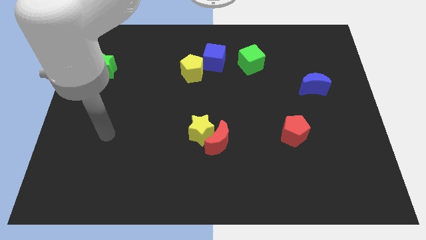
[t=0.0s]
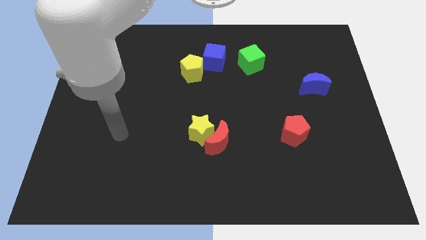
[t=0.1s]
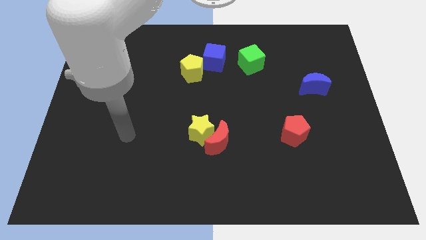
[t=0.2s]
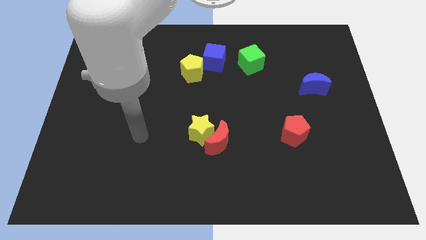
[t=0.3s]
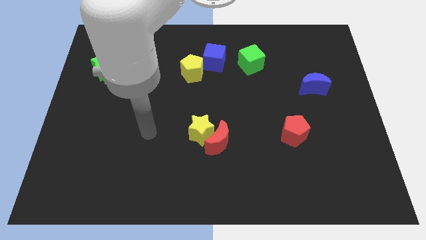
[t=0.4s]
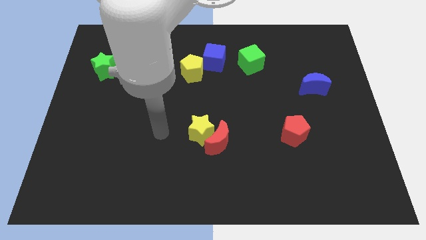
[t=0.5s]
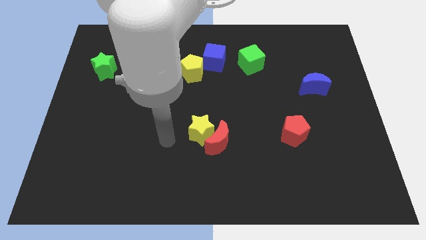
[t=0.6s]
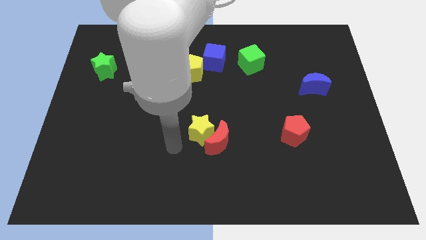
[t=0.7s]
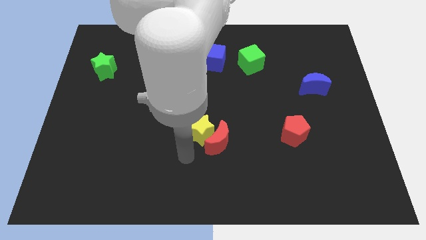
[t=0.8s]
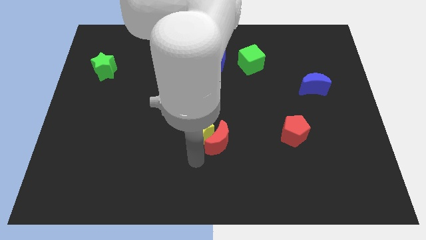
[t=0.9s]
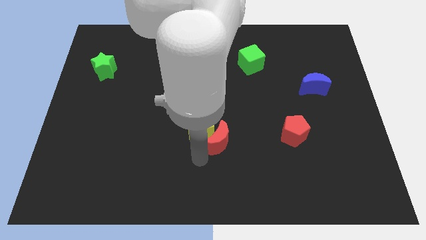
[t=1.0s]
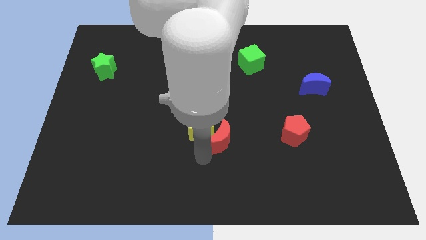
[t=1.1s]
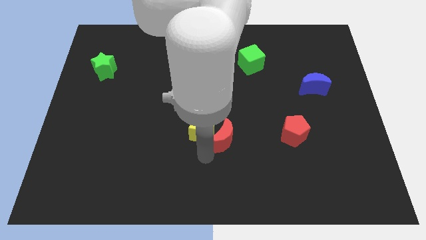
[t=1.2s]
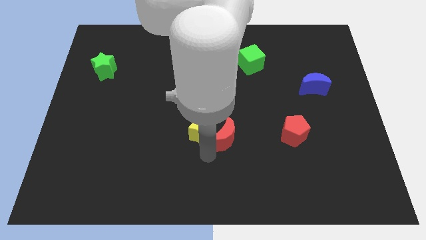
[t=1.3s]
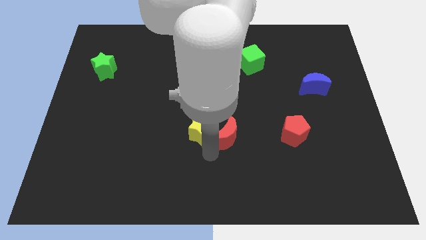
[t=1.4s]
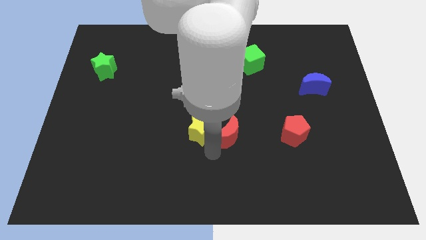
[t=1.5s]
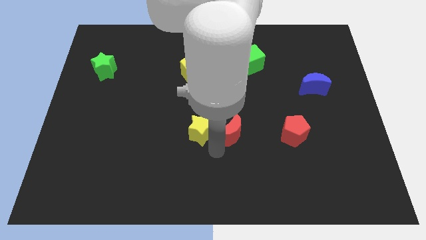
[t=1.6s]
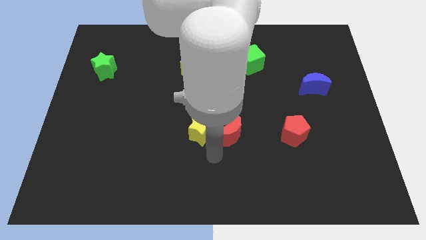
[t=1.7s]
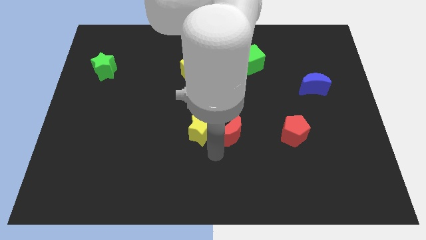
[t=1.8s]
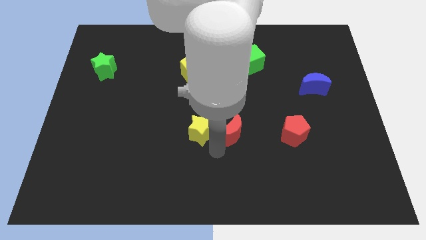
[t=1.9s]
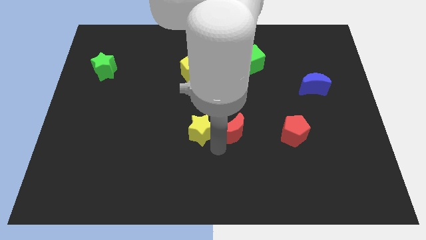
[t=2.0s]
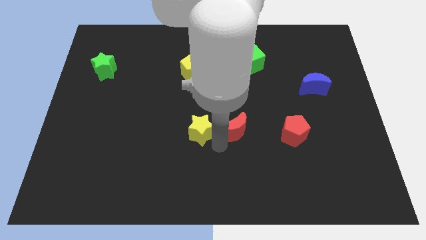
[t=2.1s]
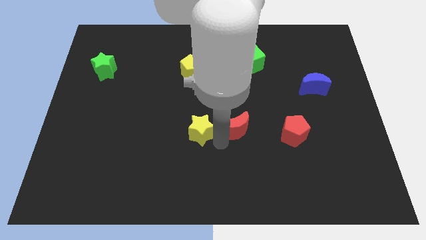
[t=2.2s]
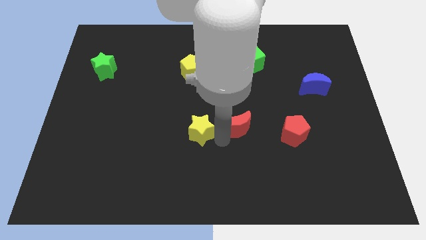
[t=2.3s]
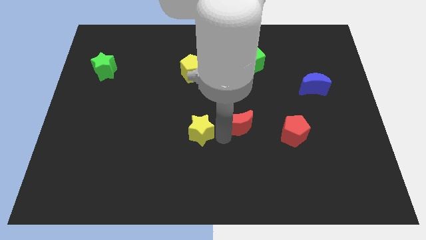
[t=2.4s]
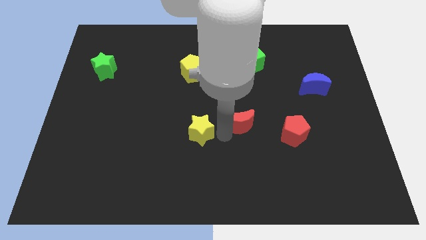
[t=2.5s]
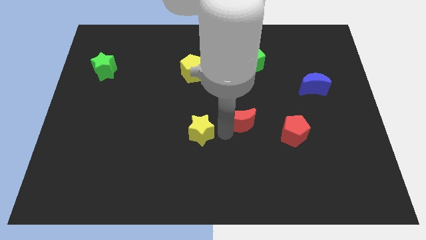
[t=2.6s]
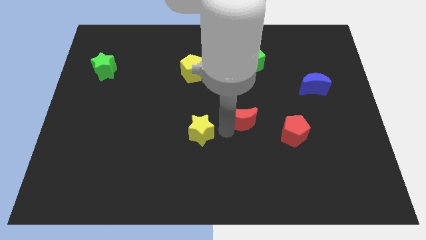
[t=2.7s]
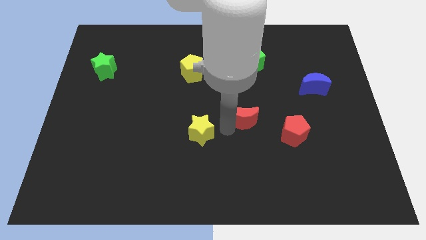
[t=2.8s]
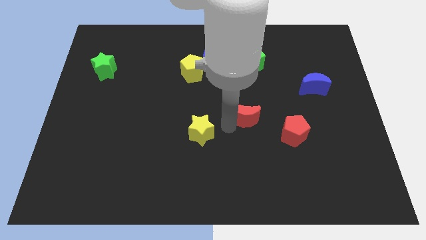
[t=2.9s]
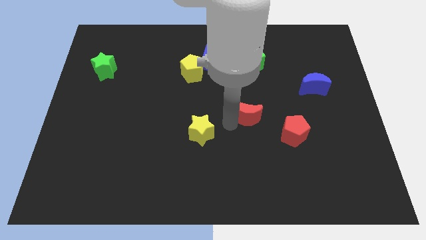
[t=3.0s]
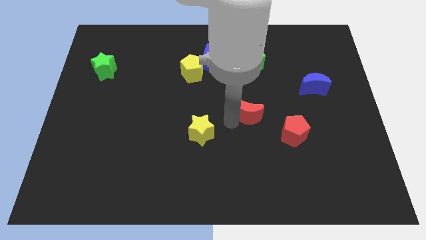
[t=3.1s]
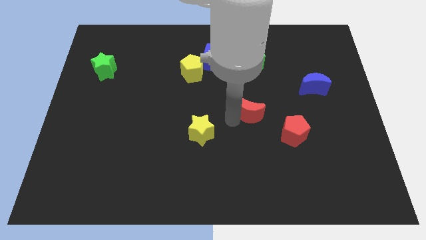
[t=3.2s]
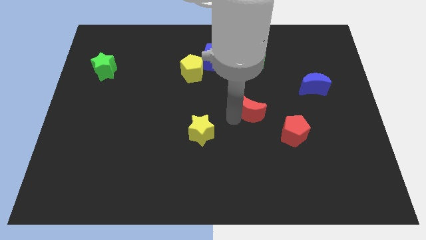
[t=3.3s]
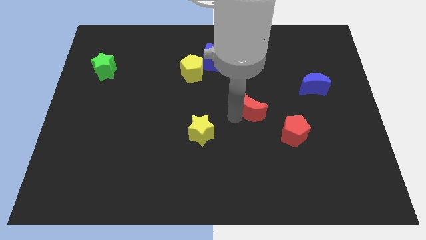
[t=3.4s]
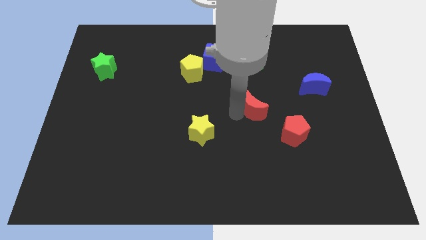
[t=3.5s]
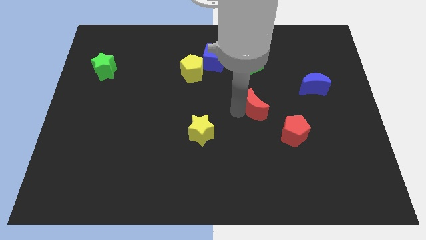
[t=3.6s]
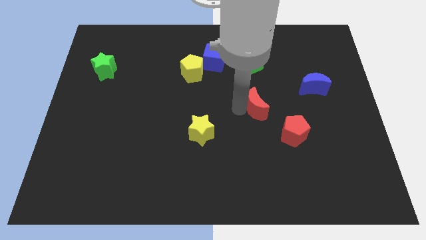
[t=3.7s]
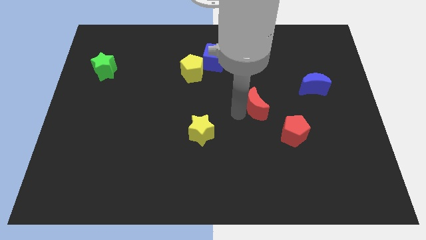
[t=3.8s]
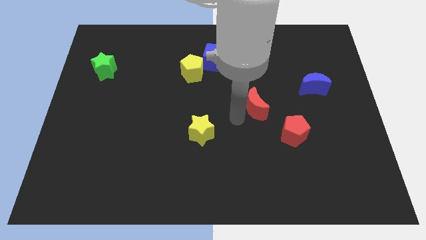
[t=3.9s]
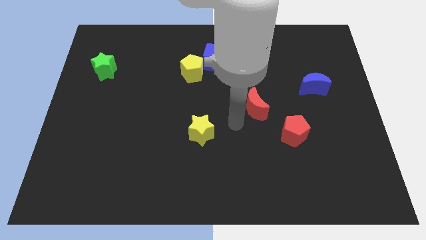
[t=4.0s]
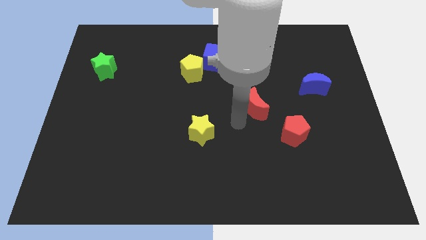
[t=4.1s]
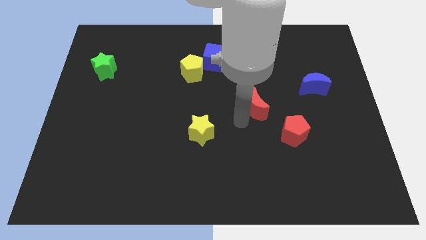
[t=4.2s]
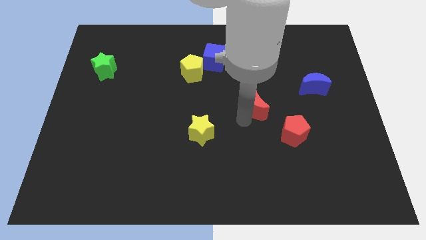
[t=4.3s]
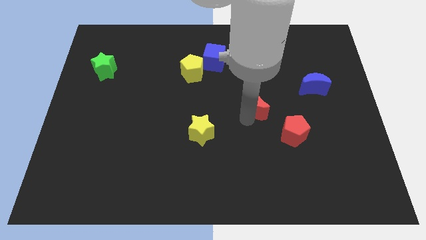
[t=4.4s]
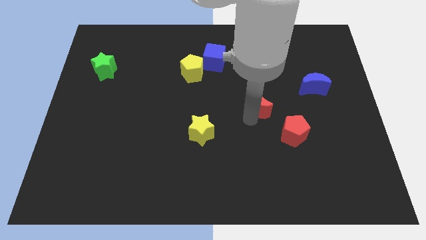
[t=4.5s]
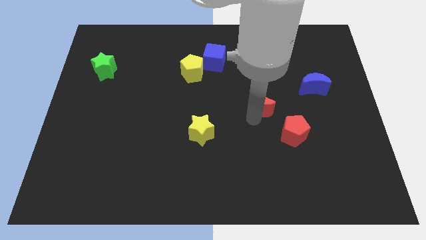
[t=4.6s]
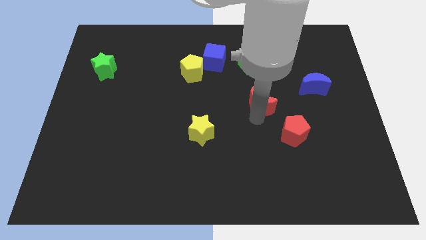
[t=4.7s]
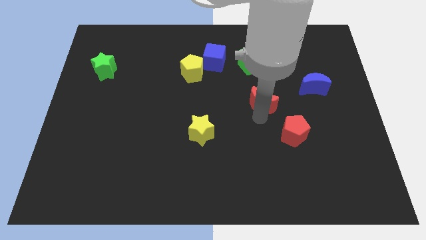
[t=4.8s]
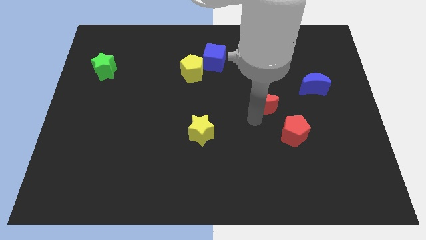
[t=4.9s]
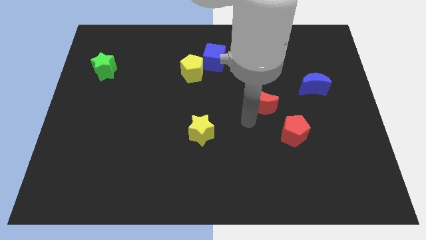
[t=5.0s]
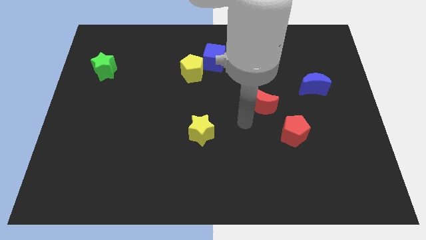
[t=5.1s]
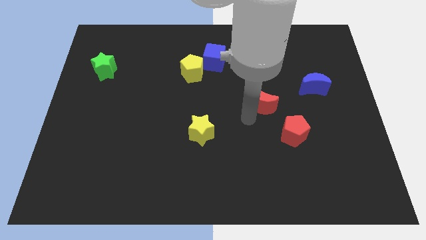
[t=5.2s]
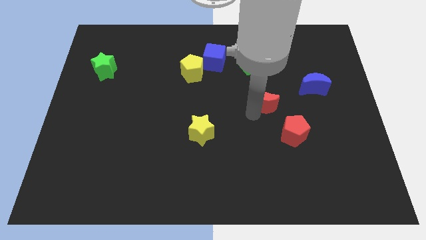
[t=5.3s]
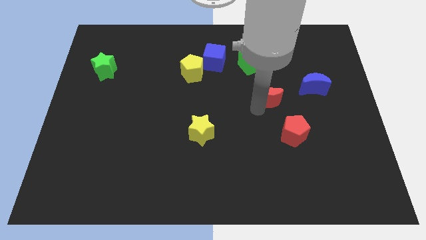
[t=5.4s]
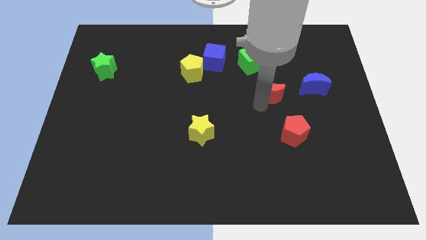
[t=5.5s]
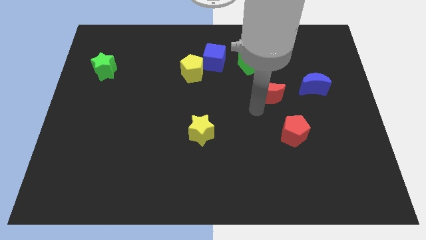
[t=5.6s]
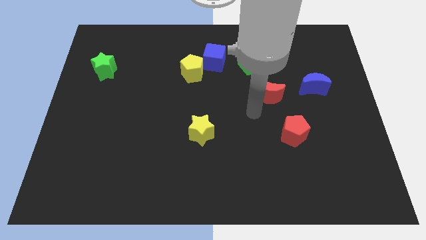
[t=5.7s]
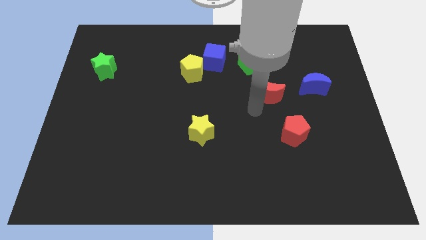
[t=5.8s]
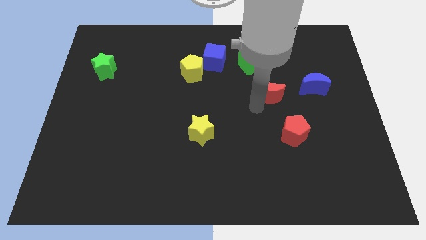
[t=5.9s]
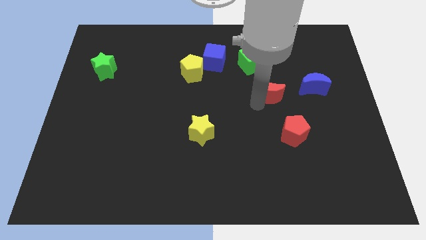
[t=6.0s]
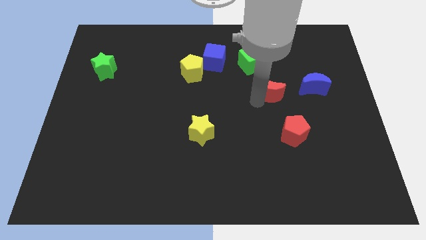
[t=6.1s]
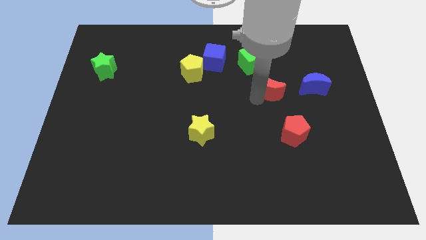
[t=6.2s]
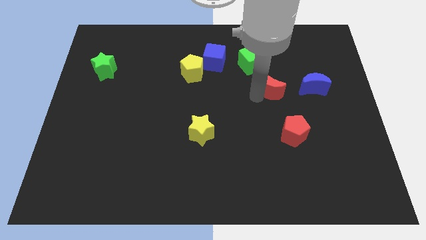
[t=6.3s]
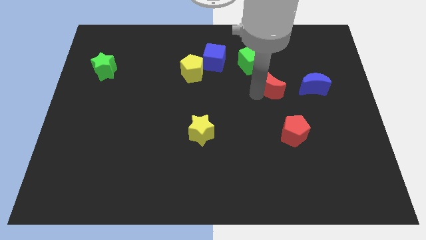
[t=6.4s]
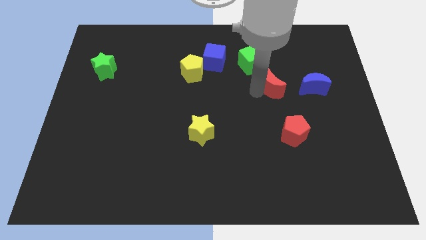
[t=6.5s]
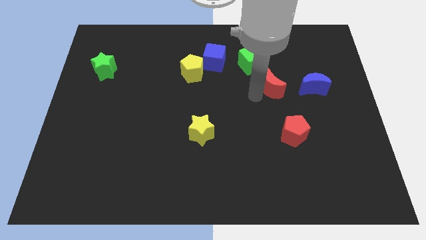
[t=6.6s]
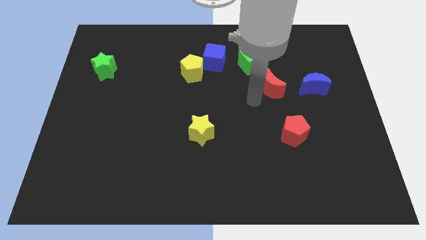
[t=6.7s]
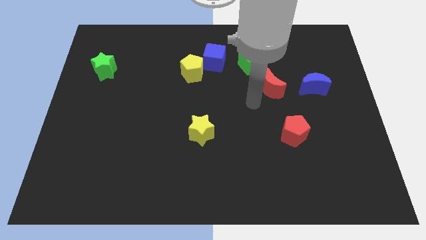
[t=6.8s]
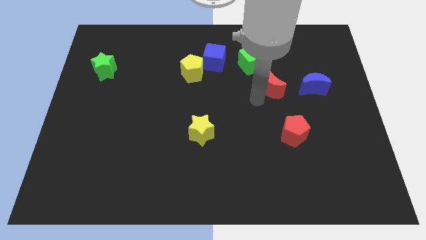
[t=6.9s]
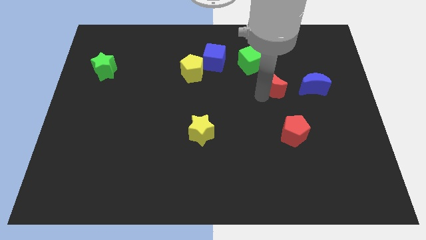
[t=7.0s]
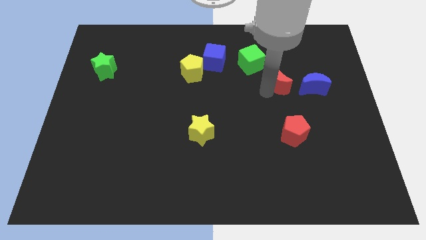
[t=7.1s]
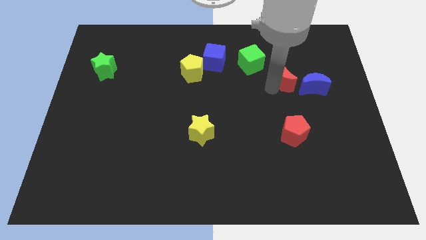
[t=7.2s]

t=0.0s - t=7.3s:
move the red moon to the top left of the blue moon

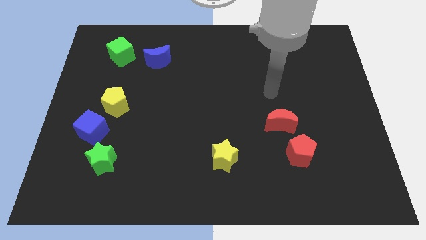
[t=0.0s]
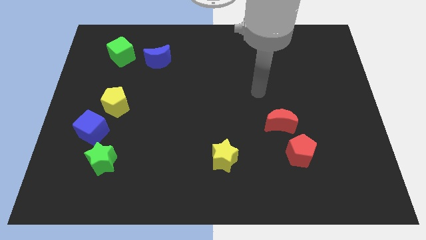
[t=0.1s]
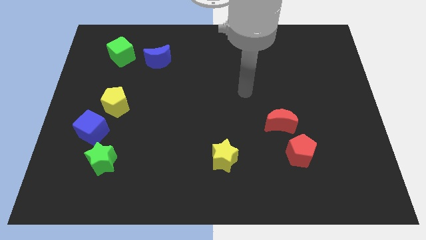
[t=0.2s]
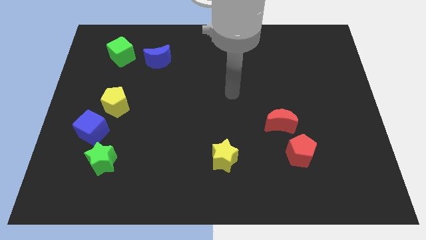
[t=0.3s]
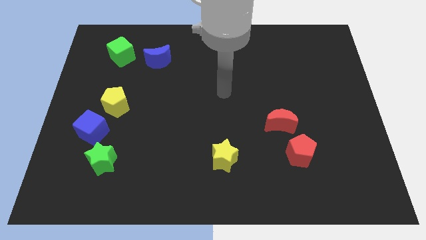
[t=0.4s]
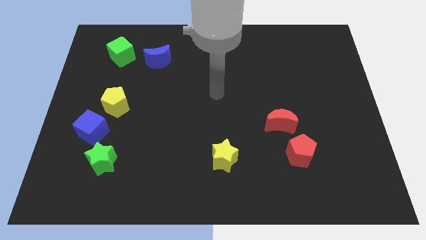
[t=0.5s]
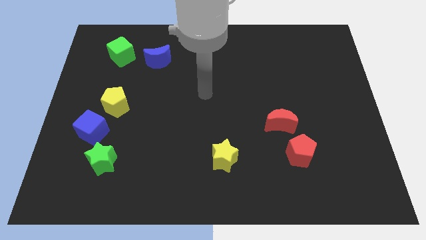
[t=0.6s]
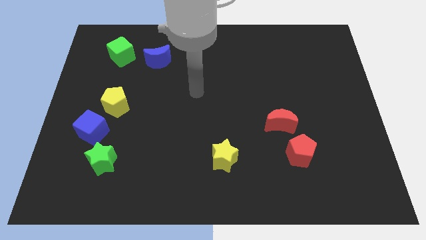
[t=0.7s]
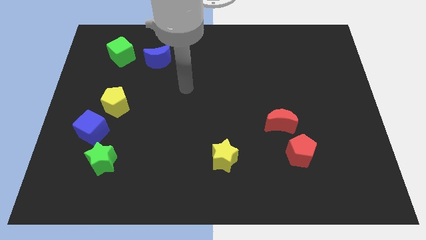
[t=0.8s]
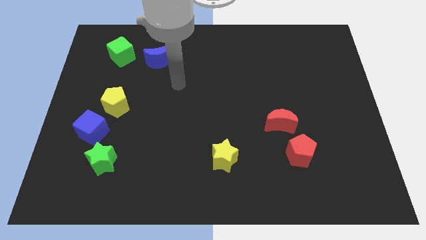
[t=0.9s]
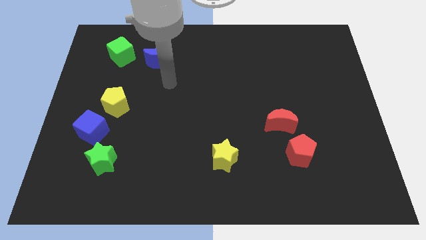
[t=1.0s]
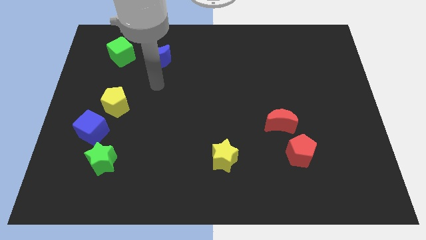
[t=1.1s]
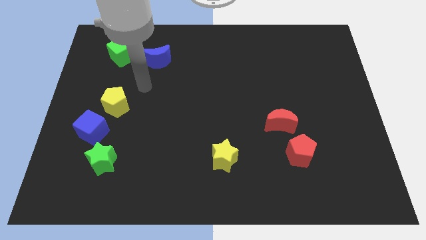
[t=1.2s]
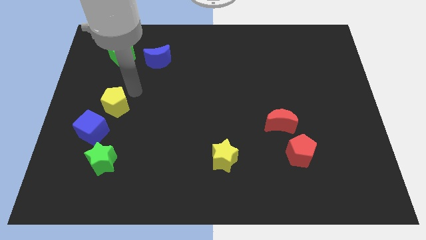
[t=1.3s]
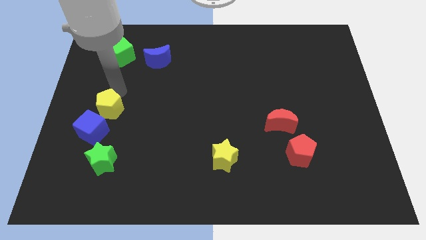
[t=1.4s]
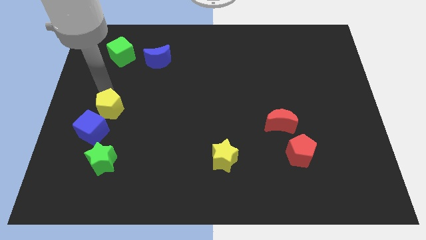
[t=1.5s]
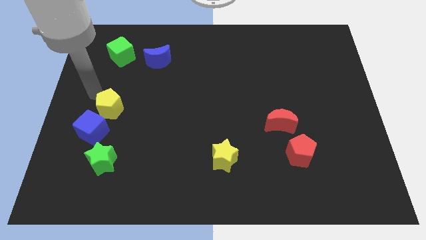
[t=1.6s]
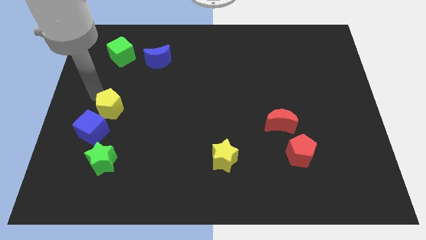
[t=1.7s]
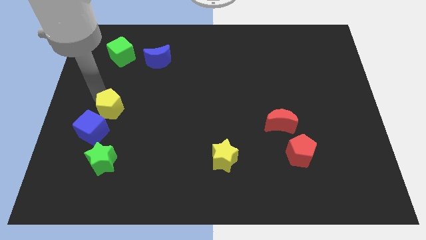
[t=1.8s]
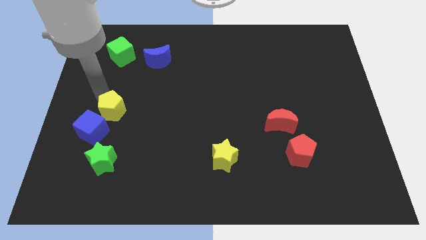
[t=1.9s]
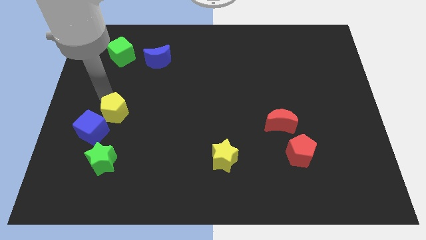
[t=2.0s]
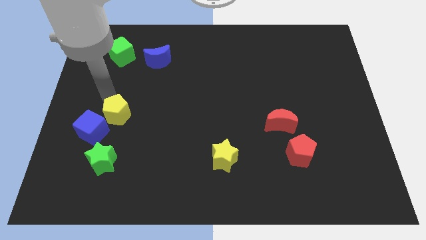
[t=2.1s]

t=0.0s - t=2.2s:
move the yellow pentagon just right of the blue cube
